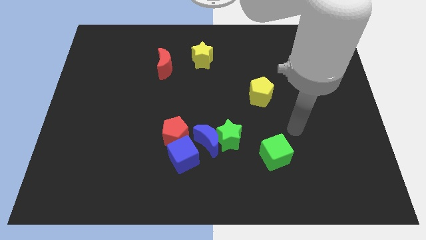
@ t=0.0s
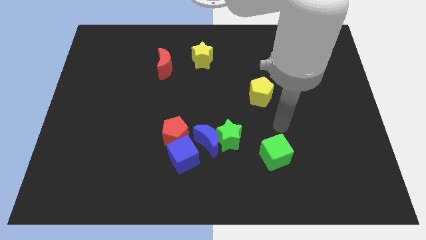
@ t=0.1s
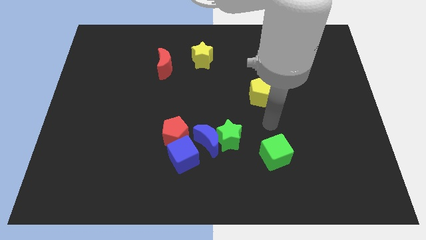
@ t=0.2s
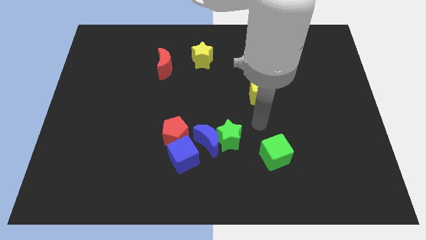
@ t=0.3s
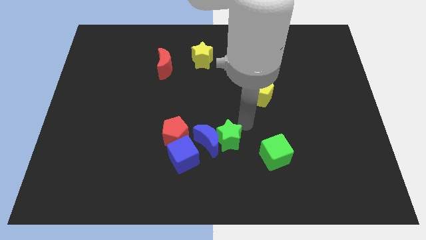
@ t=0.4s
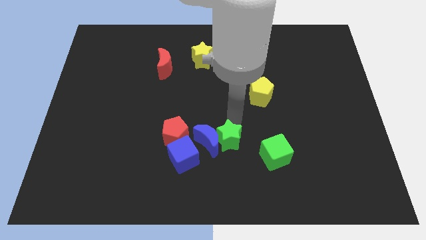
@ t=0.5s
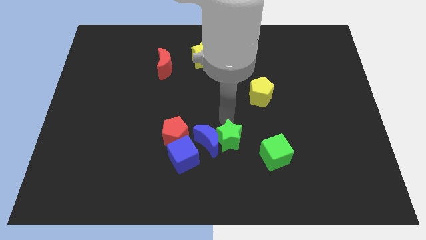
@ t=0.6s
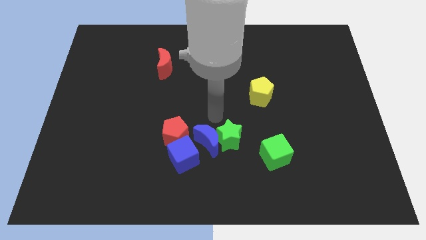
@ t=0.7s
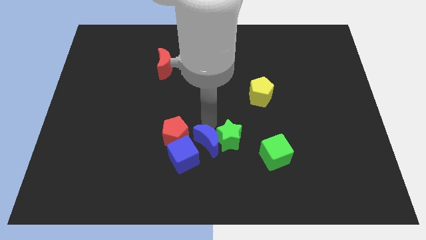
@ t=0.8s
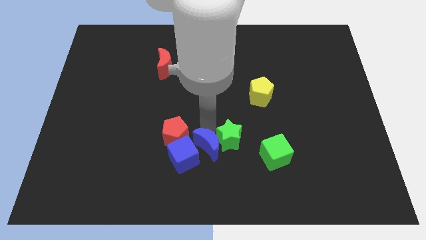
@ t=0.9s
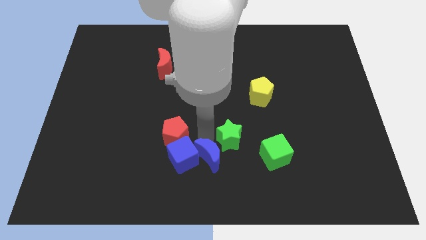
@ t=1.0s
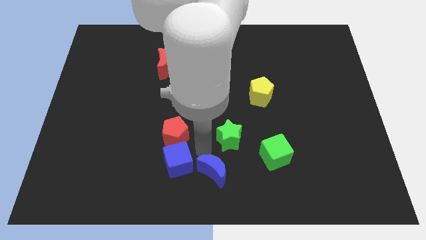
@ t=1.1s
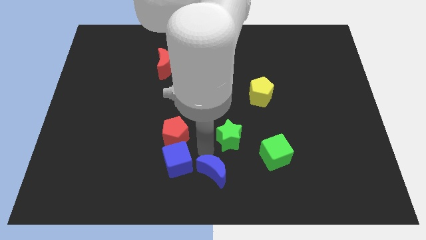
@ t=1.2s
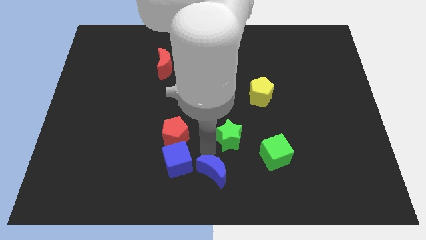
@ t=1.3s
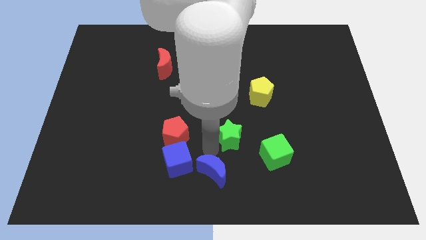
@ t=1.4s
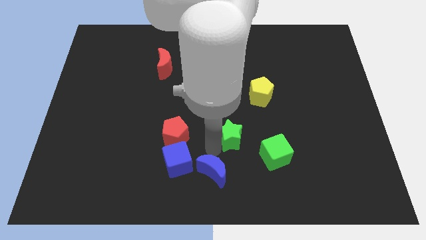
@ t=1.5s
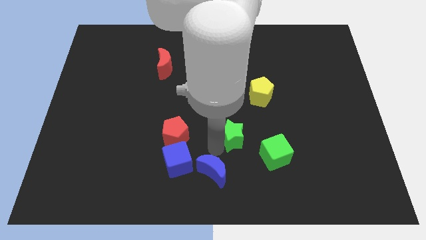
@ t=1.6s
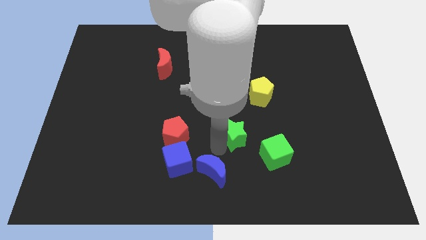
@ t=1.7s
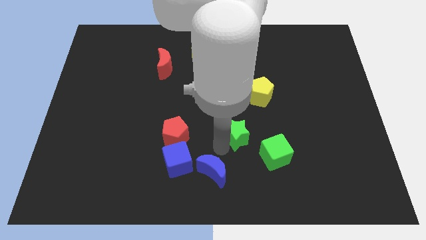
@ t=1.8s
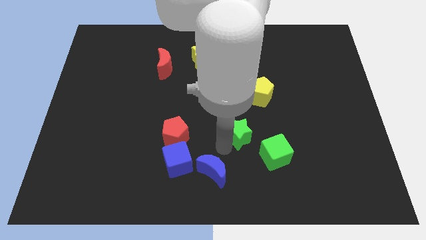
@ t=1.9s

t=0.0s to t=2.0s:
separate the green star from the blue moon

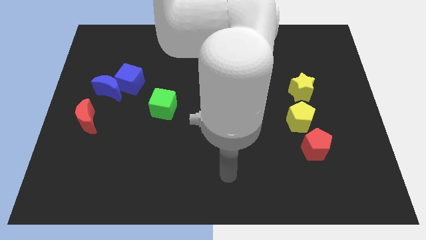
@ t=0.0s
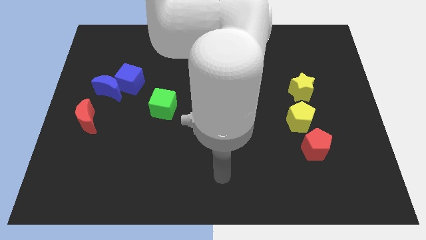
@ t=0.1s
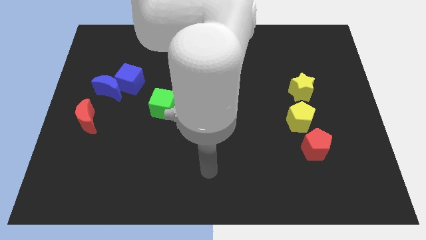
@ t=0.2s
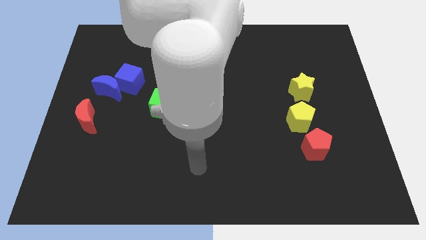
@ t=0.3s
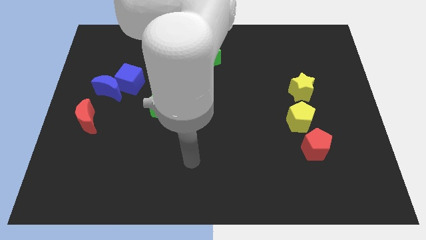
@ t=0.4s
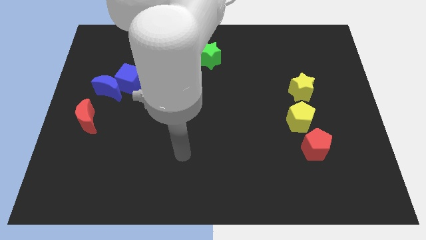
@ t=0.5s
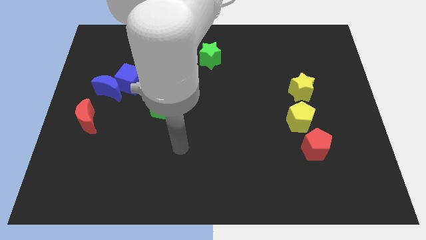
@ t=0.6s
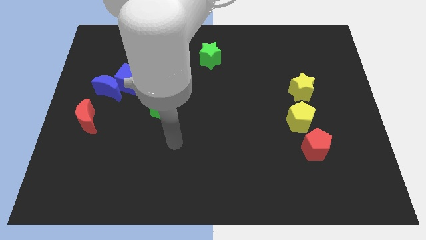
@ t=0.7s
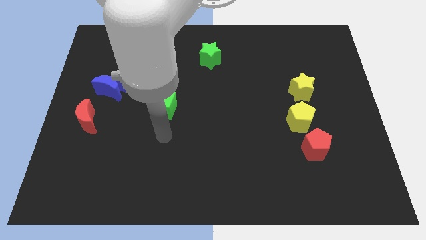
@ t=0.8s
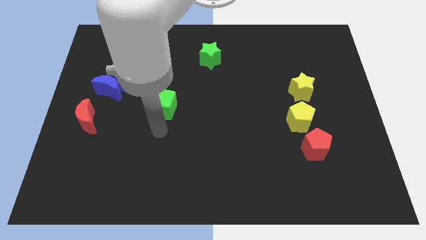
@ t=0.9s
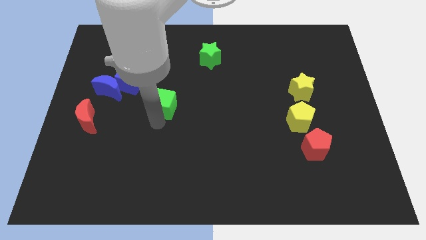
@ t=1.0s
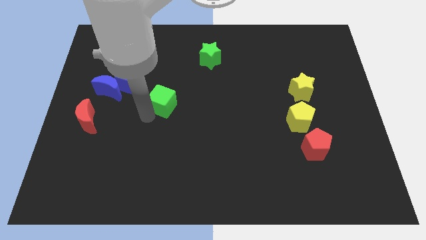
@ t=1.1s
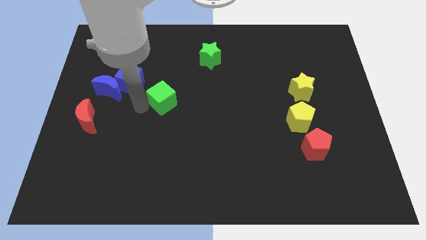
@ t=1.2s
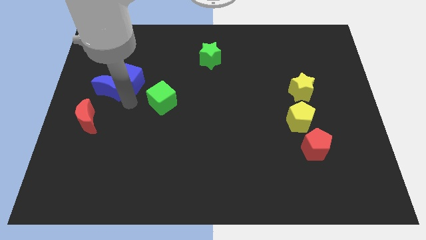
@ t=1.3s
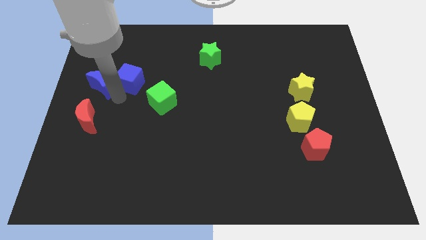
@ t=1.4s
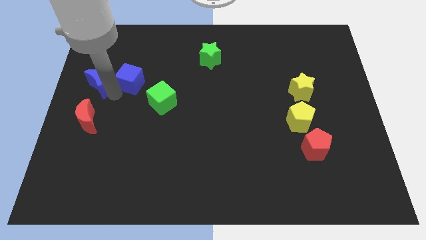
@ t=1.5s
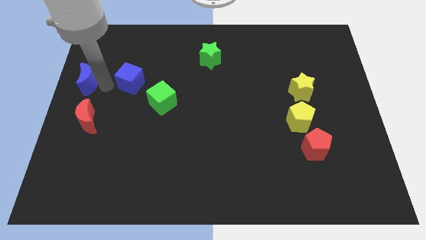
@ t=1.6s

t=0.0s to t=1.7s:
pull the blue cube apart from the blue moon

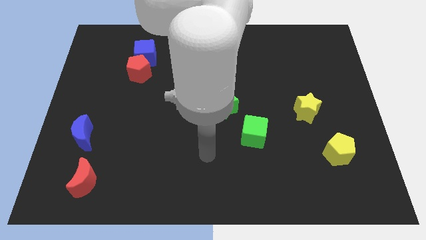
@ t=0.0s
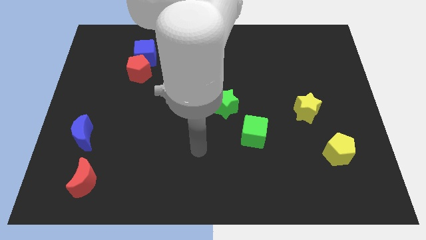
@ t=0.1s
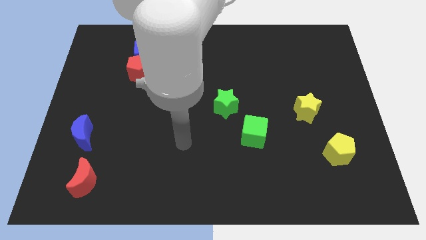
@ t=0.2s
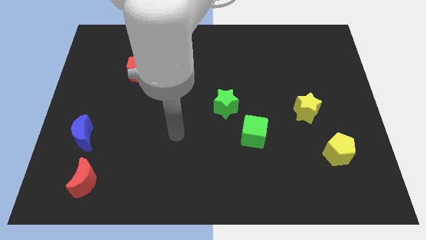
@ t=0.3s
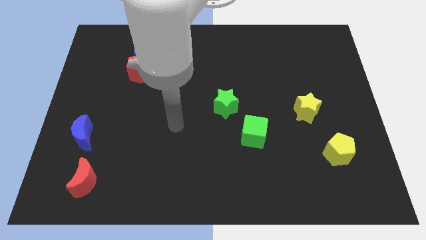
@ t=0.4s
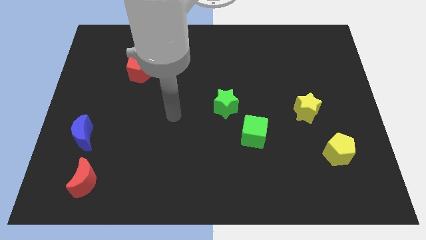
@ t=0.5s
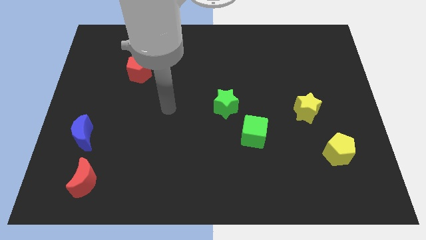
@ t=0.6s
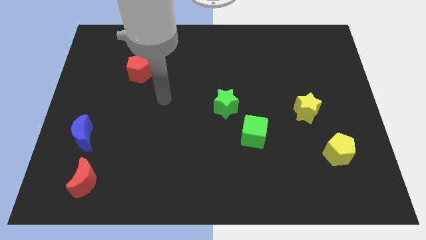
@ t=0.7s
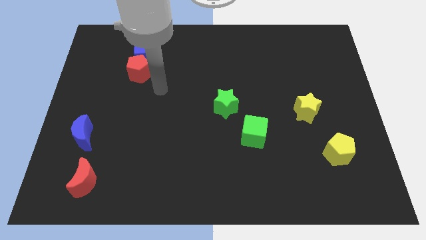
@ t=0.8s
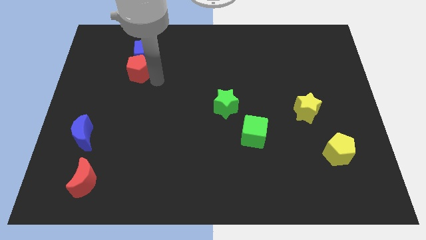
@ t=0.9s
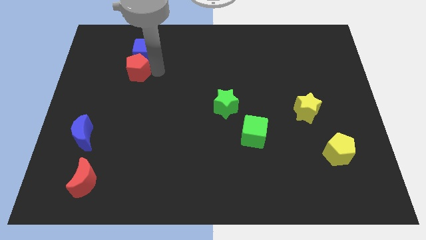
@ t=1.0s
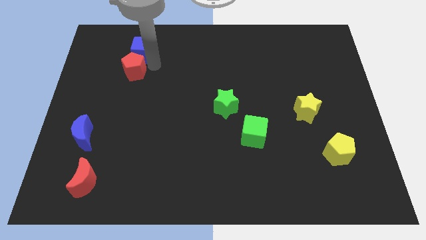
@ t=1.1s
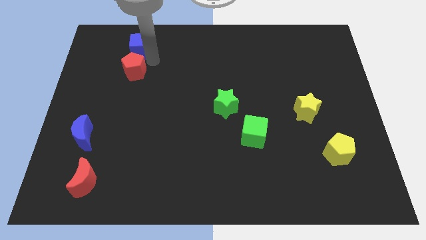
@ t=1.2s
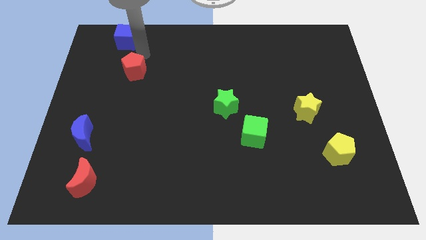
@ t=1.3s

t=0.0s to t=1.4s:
pull the red pentagon apart from the blue cube

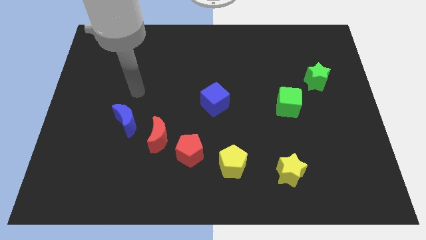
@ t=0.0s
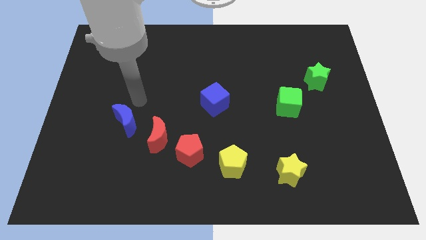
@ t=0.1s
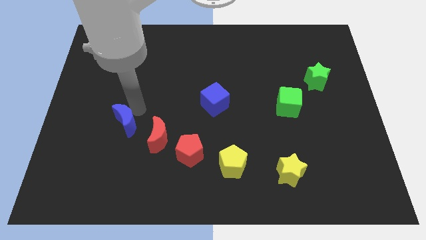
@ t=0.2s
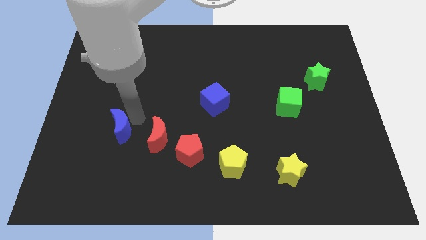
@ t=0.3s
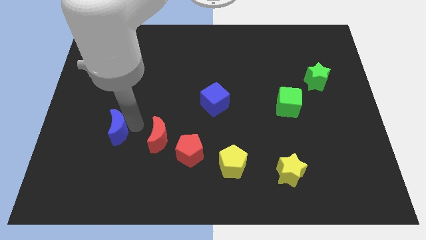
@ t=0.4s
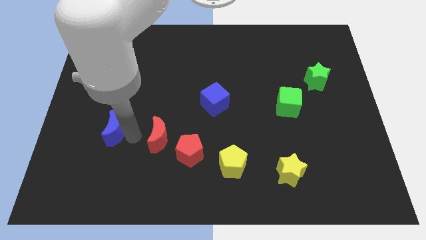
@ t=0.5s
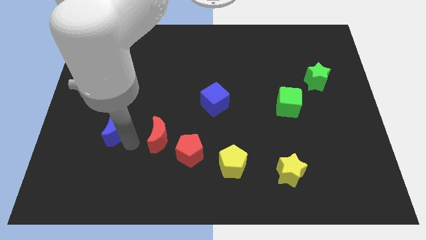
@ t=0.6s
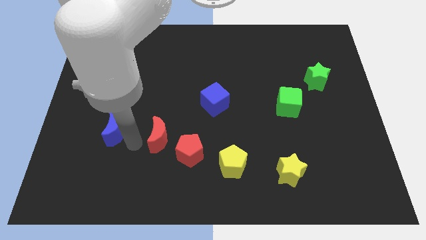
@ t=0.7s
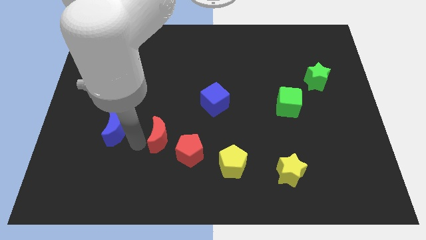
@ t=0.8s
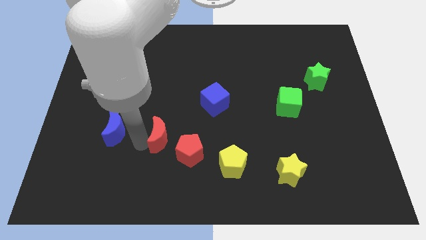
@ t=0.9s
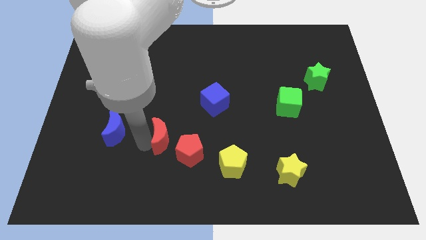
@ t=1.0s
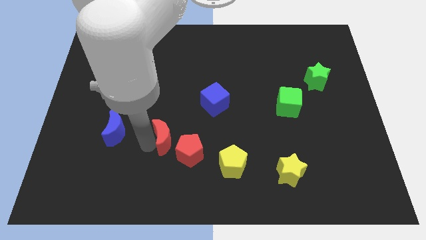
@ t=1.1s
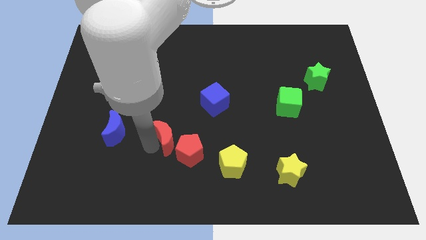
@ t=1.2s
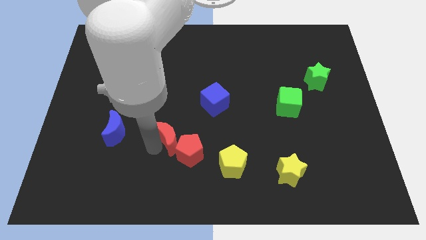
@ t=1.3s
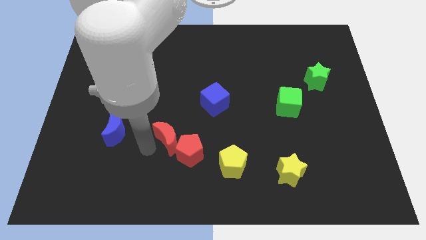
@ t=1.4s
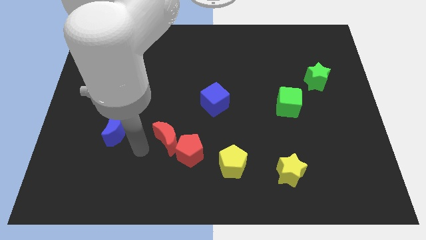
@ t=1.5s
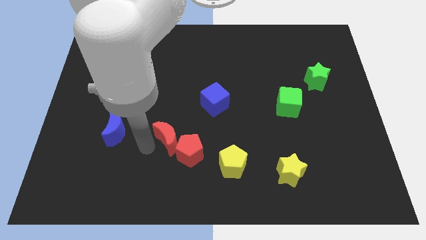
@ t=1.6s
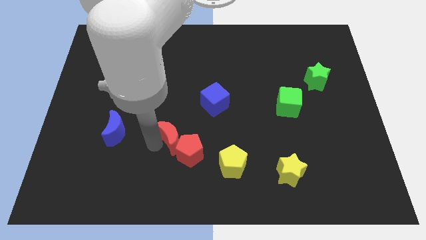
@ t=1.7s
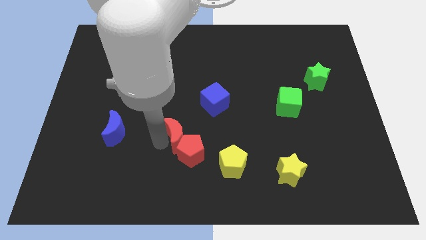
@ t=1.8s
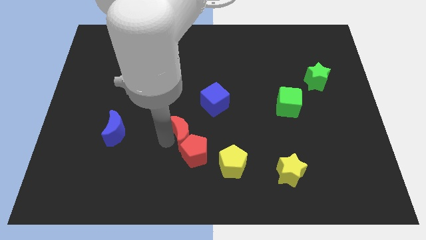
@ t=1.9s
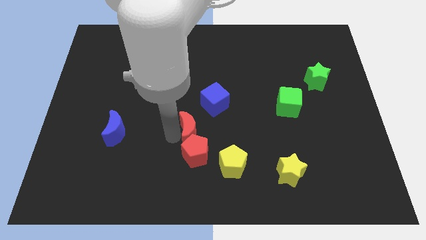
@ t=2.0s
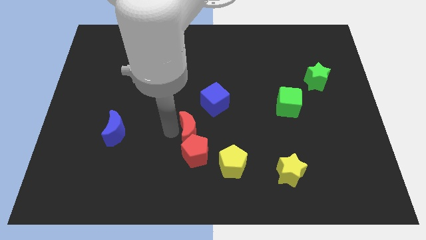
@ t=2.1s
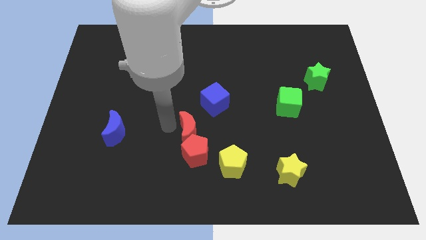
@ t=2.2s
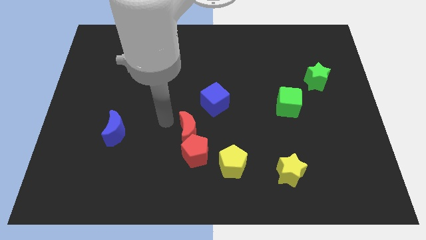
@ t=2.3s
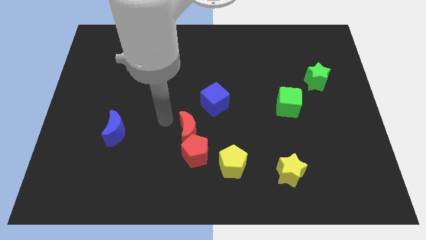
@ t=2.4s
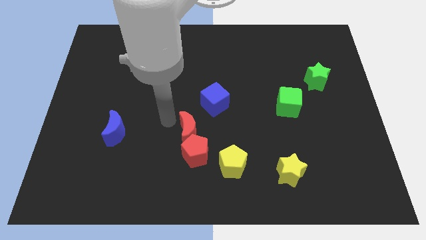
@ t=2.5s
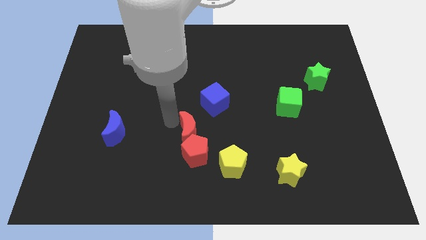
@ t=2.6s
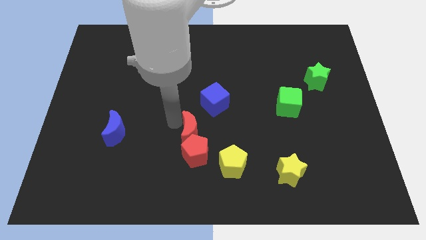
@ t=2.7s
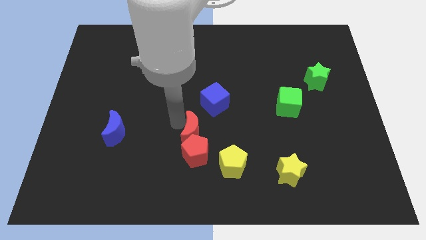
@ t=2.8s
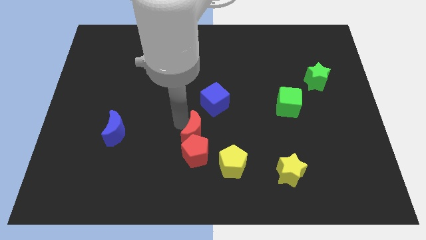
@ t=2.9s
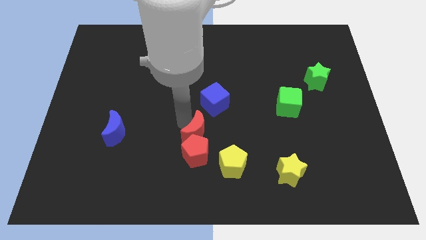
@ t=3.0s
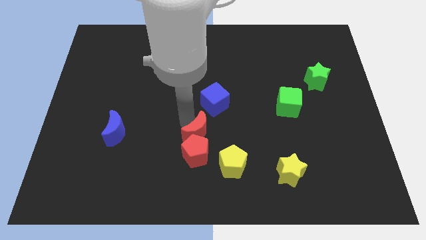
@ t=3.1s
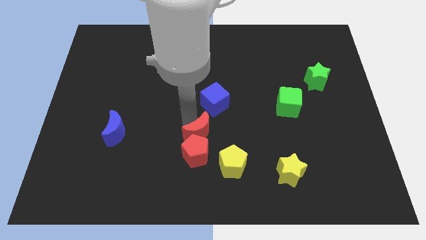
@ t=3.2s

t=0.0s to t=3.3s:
move the red moon away from the red pentagon and blue moon

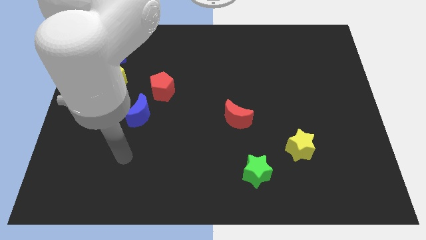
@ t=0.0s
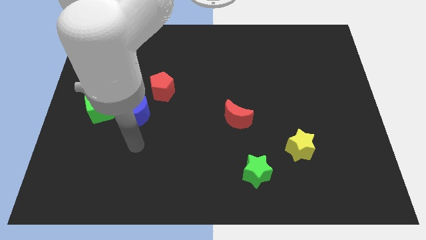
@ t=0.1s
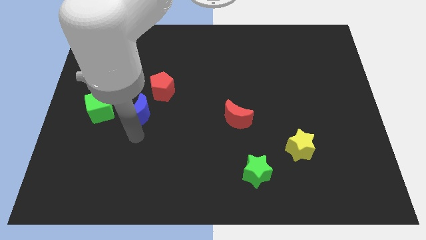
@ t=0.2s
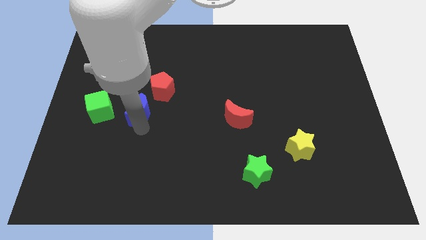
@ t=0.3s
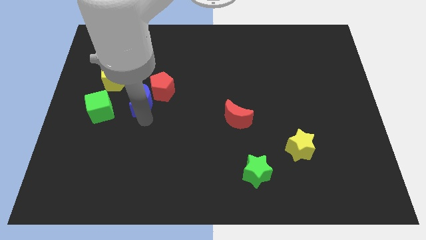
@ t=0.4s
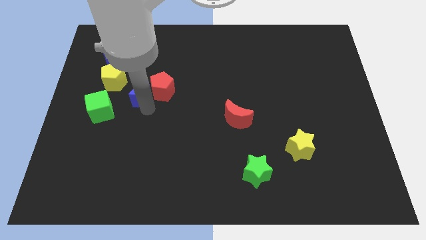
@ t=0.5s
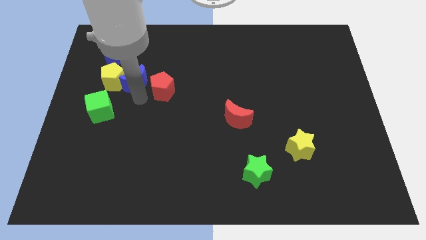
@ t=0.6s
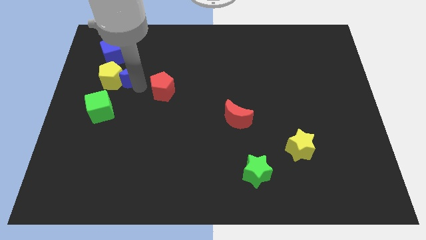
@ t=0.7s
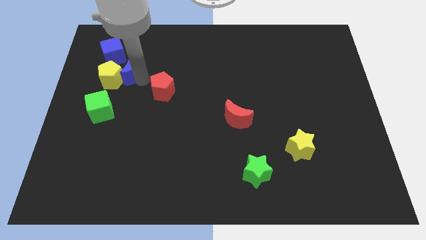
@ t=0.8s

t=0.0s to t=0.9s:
separate the red pentagon from the blue moon
